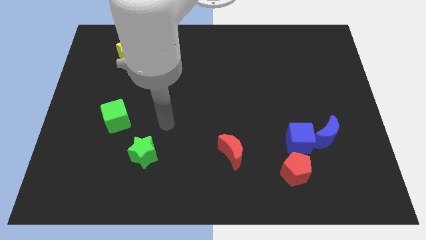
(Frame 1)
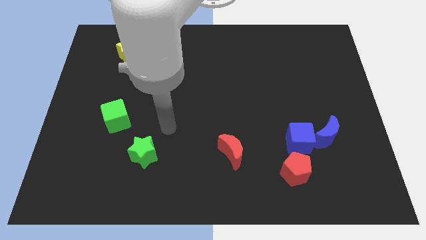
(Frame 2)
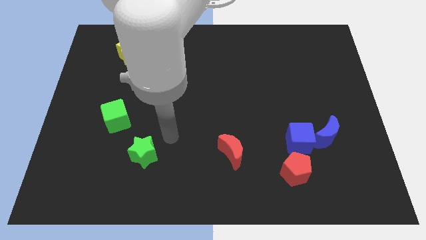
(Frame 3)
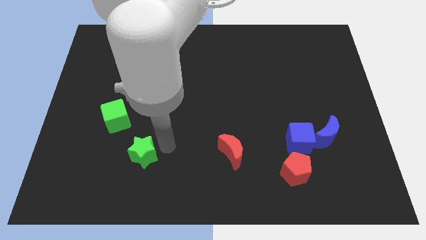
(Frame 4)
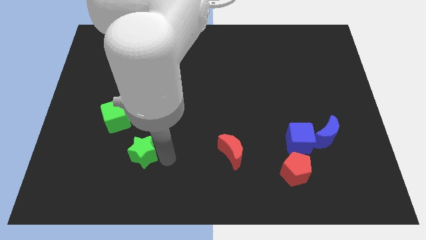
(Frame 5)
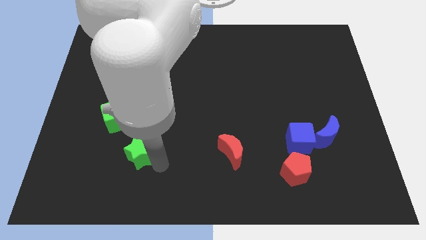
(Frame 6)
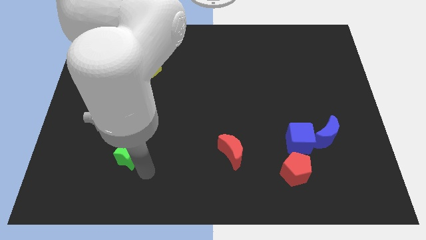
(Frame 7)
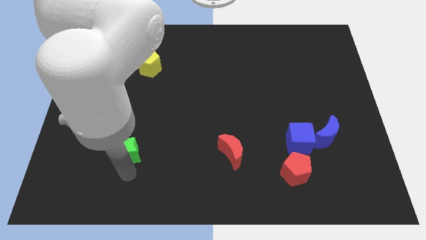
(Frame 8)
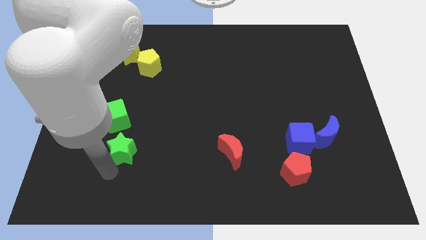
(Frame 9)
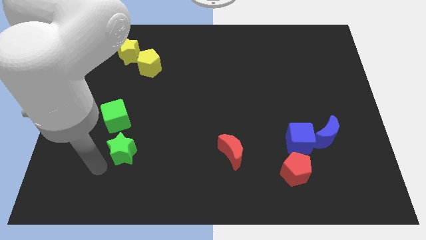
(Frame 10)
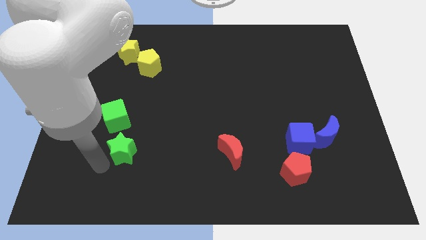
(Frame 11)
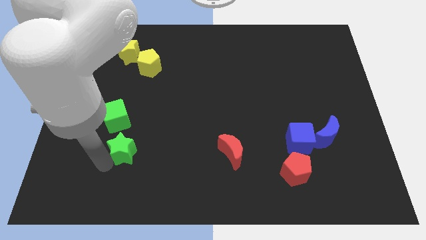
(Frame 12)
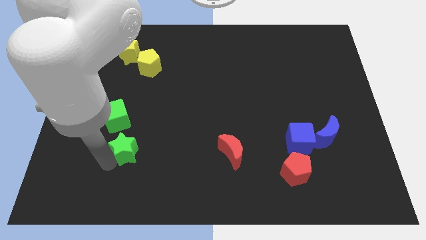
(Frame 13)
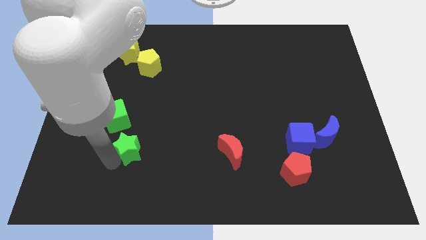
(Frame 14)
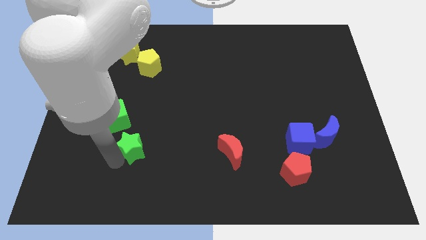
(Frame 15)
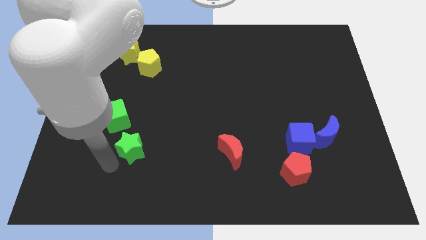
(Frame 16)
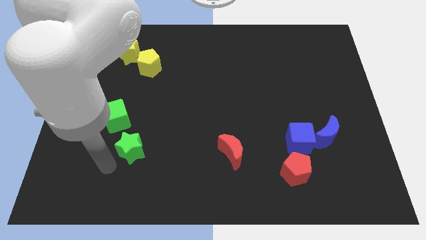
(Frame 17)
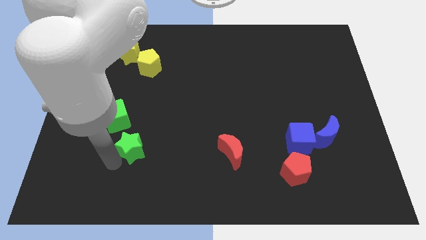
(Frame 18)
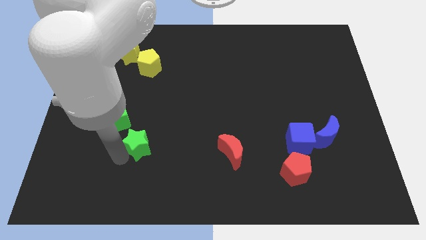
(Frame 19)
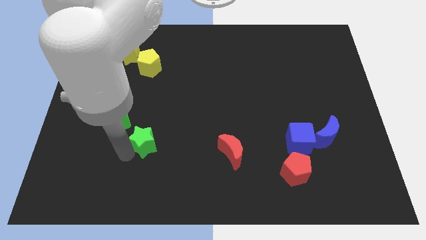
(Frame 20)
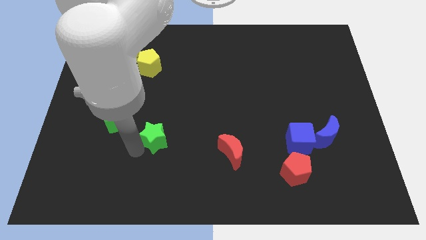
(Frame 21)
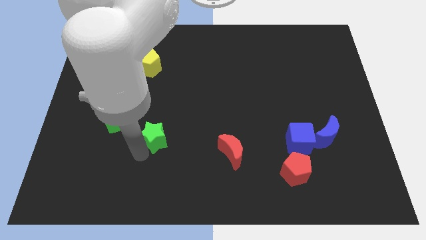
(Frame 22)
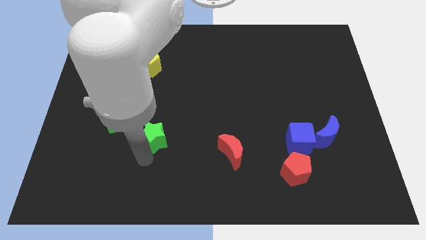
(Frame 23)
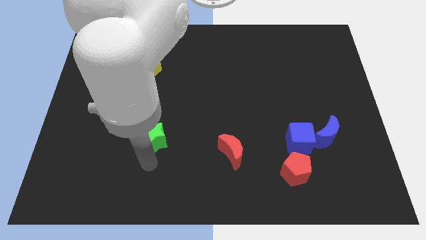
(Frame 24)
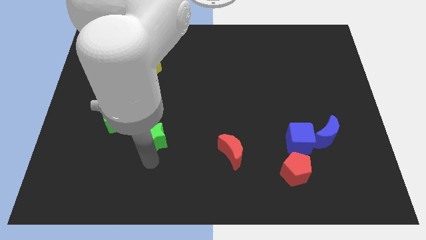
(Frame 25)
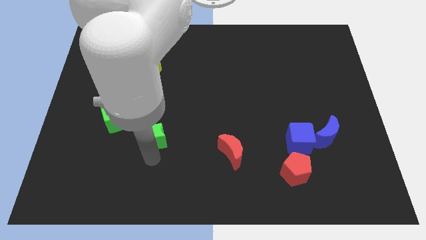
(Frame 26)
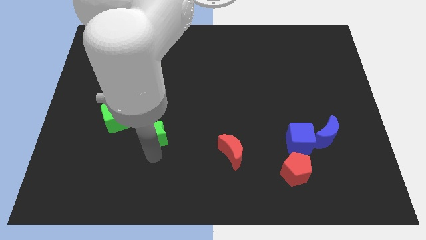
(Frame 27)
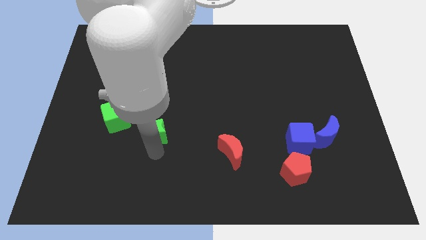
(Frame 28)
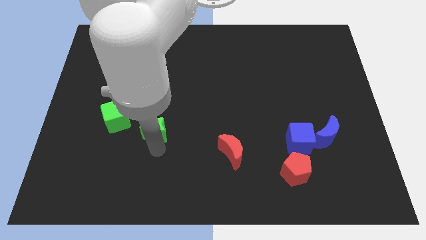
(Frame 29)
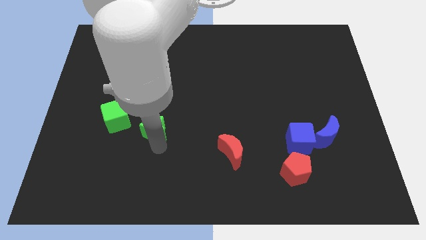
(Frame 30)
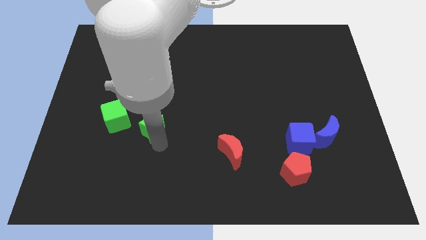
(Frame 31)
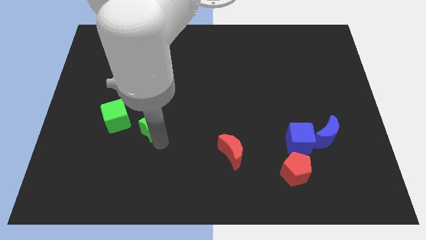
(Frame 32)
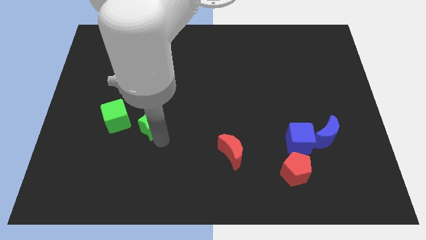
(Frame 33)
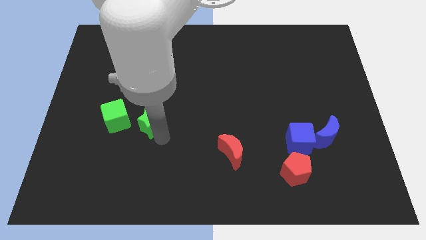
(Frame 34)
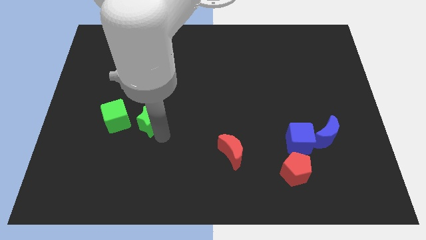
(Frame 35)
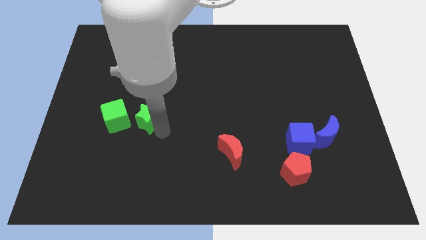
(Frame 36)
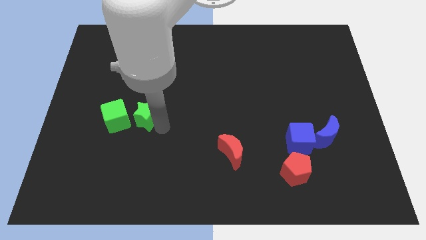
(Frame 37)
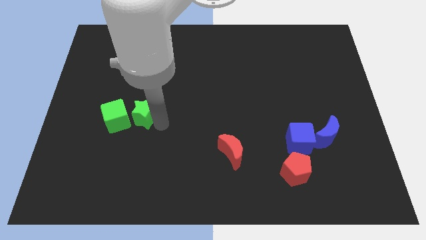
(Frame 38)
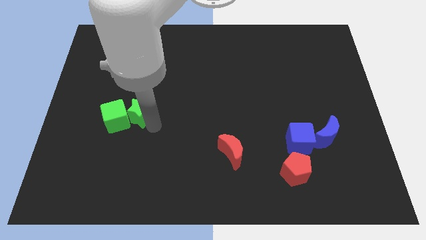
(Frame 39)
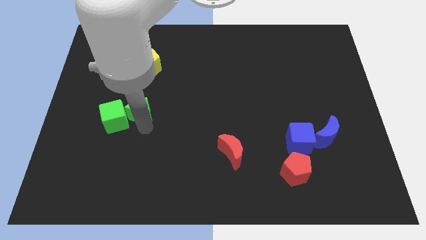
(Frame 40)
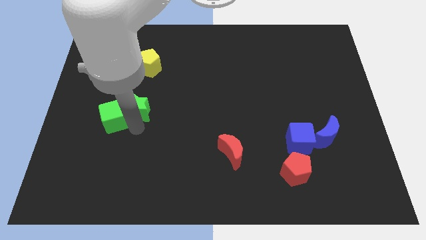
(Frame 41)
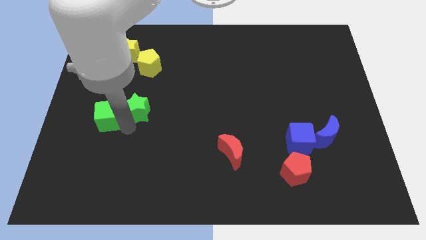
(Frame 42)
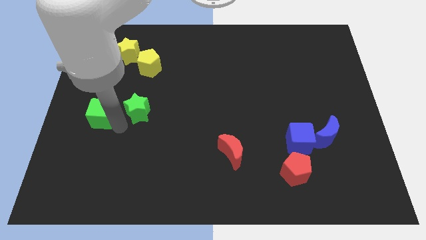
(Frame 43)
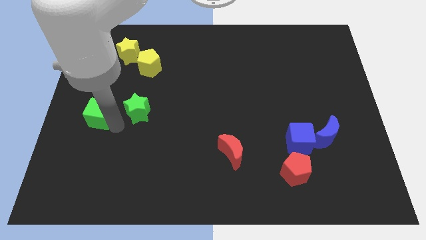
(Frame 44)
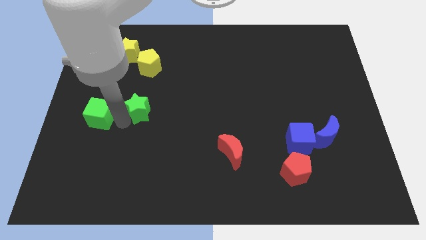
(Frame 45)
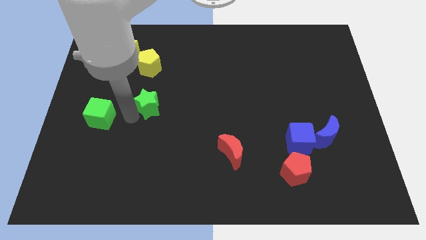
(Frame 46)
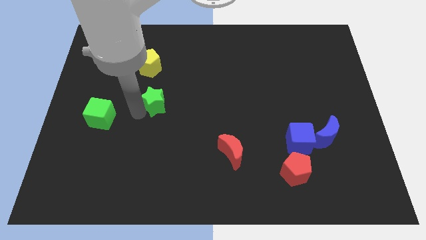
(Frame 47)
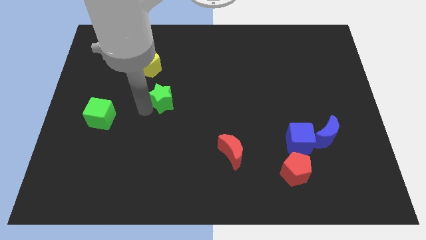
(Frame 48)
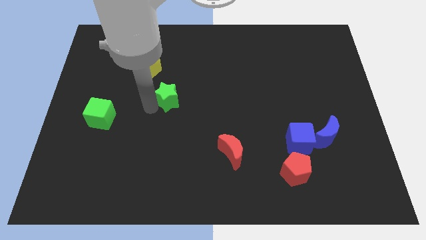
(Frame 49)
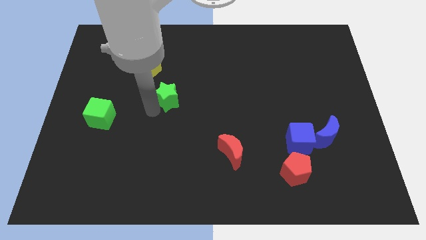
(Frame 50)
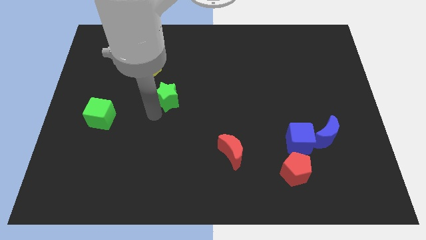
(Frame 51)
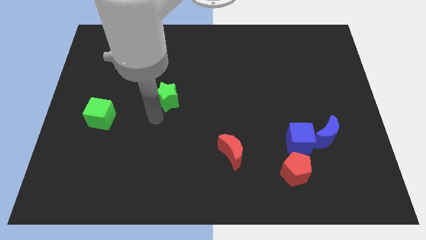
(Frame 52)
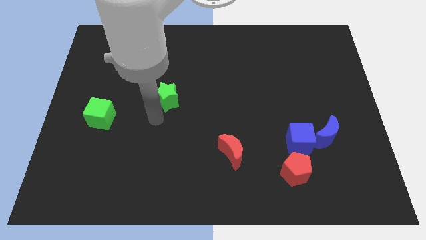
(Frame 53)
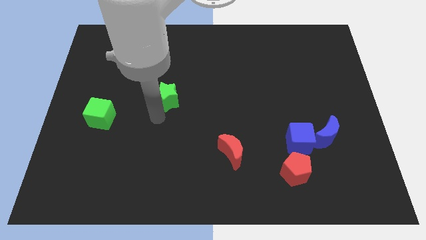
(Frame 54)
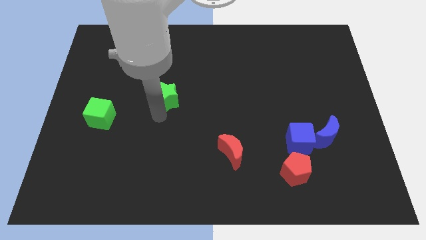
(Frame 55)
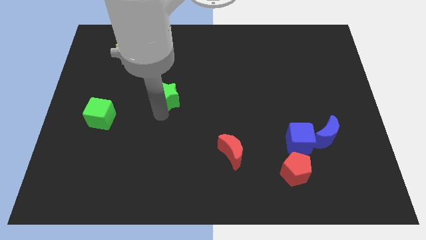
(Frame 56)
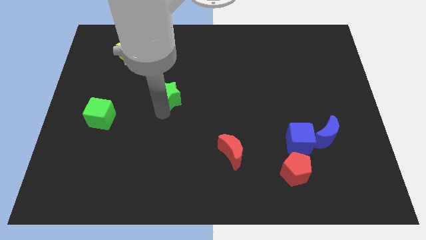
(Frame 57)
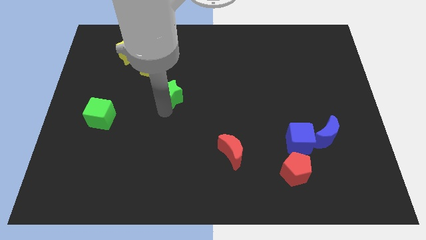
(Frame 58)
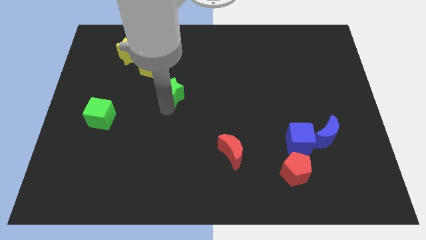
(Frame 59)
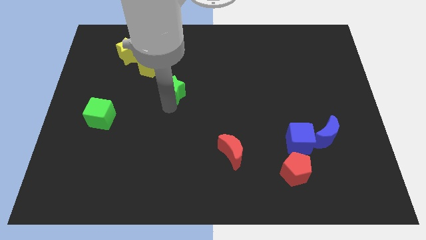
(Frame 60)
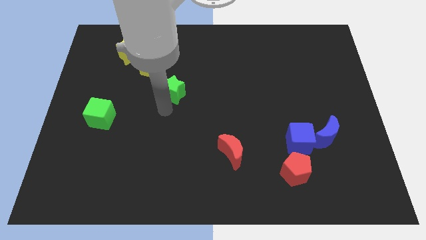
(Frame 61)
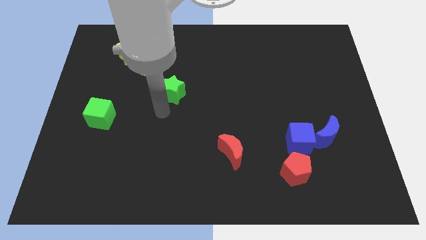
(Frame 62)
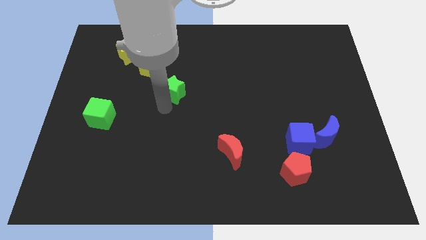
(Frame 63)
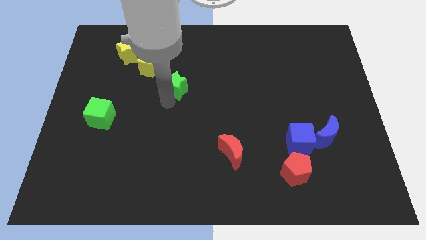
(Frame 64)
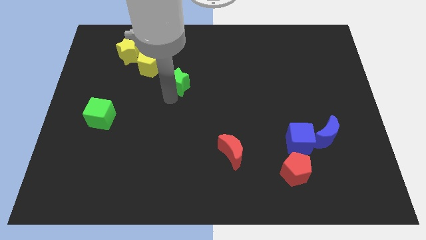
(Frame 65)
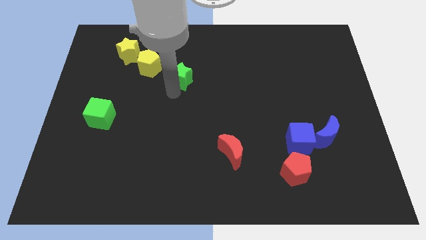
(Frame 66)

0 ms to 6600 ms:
push the green star right of the yellow pentagon
